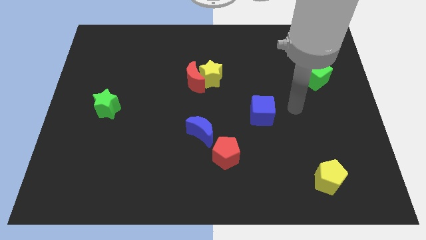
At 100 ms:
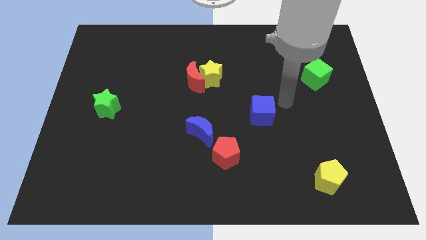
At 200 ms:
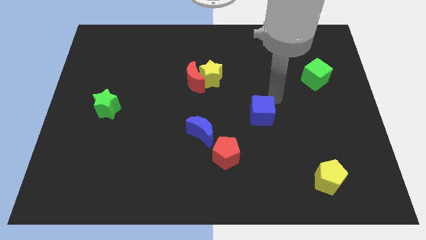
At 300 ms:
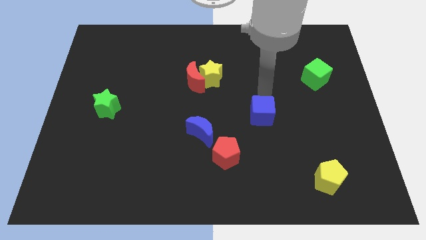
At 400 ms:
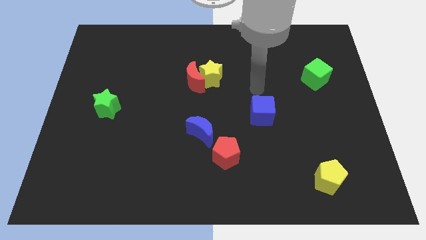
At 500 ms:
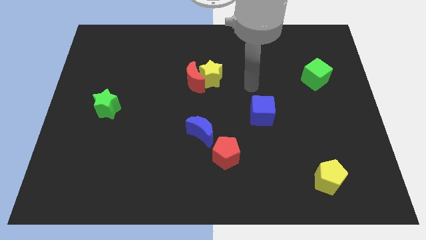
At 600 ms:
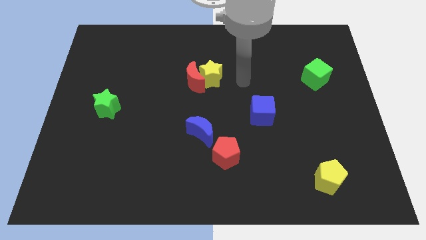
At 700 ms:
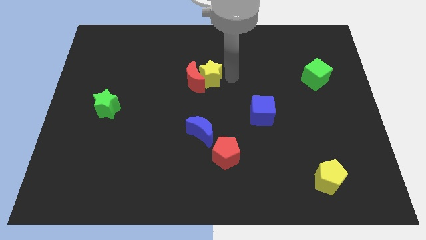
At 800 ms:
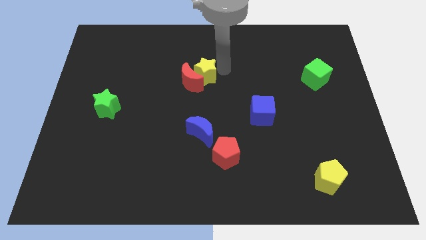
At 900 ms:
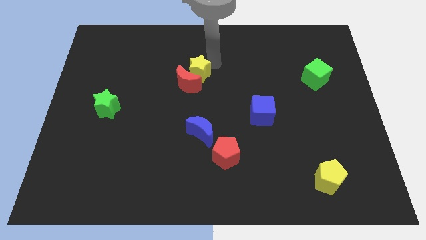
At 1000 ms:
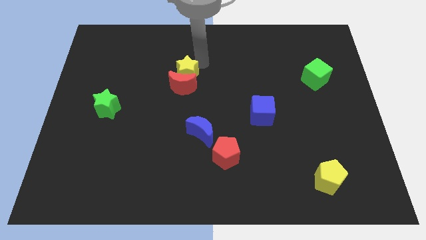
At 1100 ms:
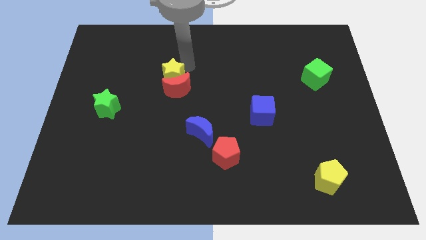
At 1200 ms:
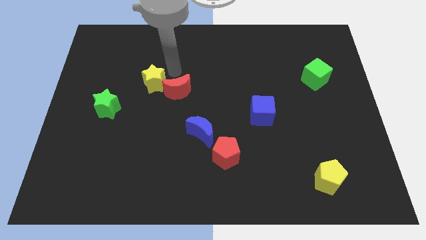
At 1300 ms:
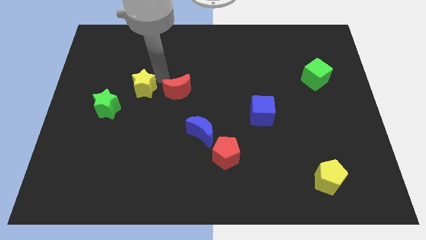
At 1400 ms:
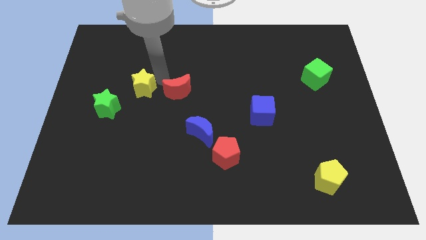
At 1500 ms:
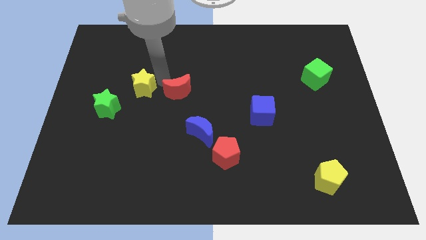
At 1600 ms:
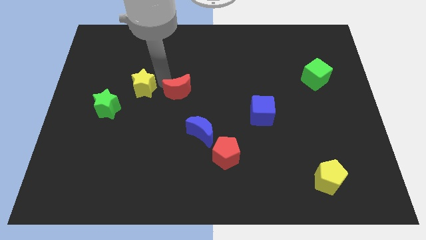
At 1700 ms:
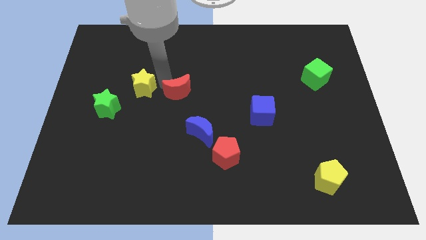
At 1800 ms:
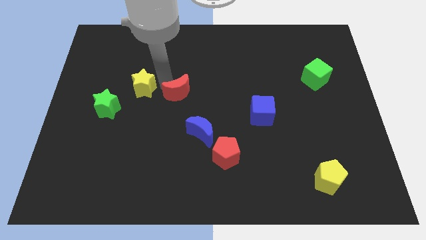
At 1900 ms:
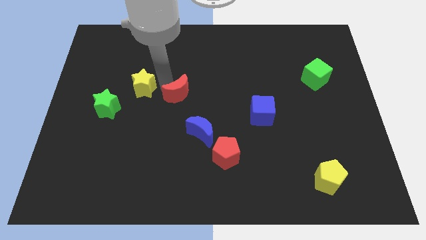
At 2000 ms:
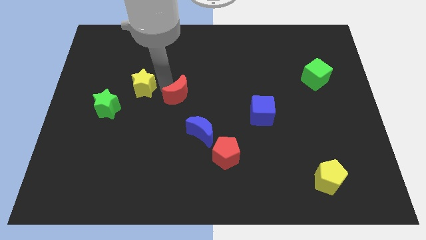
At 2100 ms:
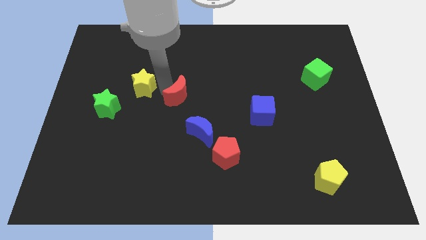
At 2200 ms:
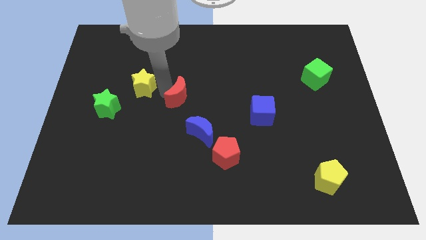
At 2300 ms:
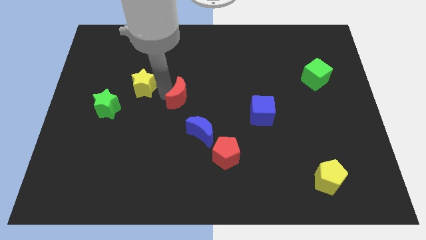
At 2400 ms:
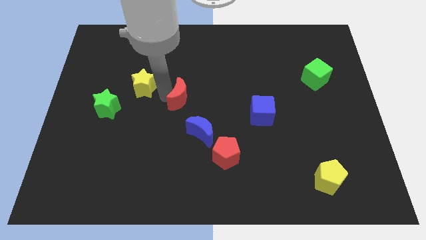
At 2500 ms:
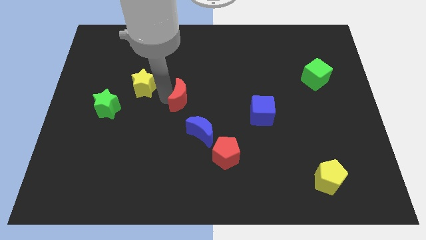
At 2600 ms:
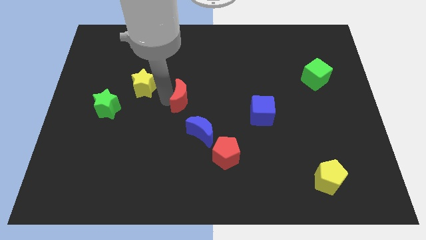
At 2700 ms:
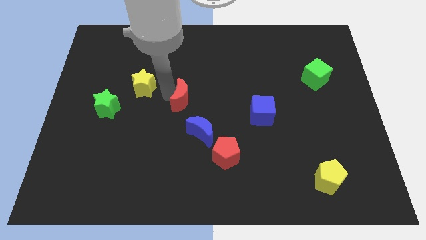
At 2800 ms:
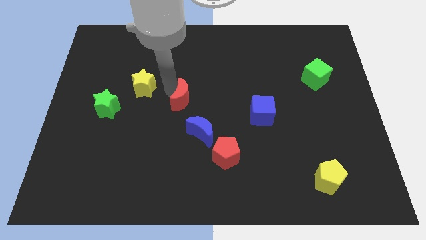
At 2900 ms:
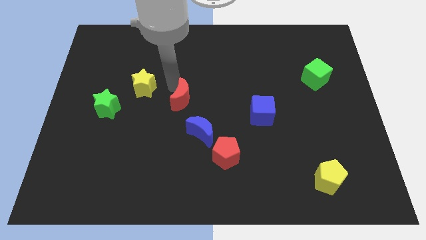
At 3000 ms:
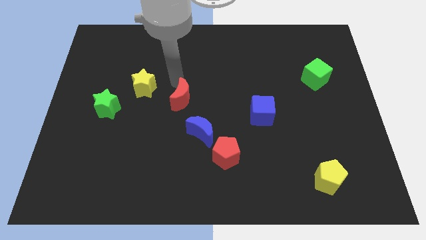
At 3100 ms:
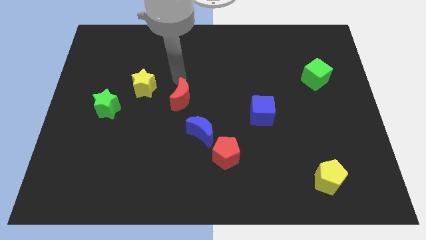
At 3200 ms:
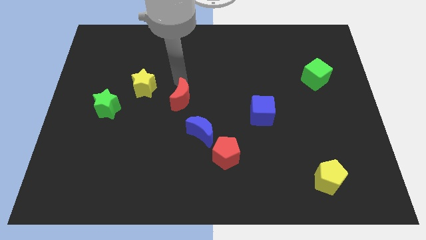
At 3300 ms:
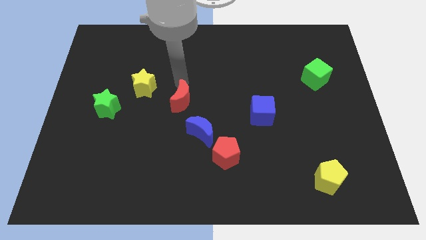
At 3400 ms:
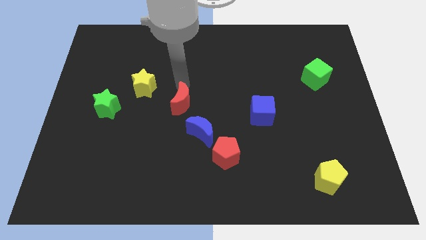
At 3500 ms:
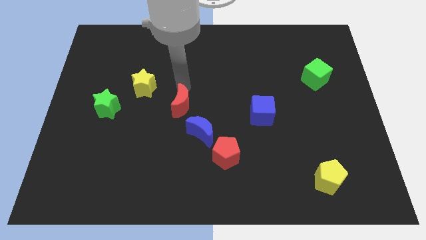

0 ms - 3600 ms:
slightly push the red moon down

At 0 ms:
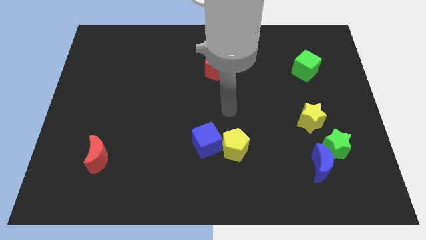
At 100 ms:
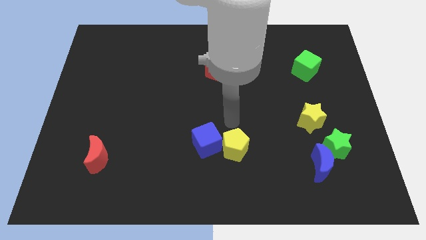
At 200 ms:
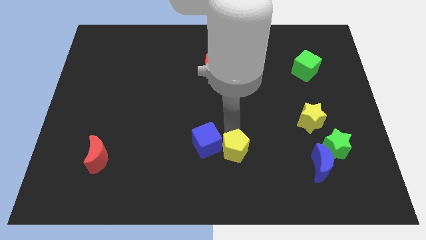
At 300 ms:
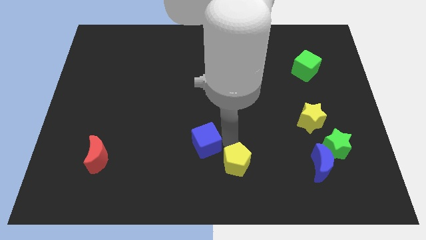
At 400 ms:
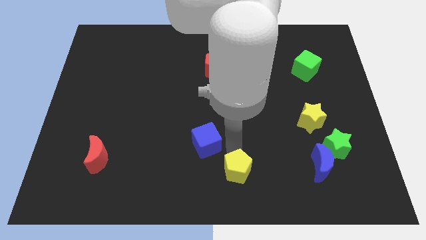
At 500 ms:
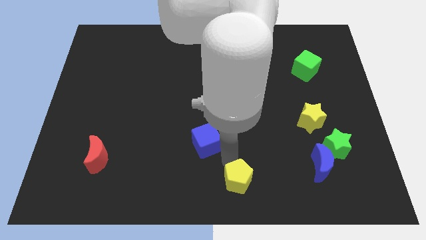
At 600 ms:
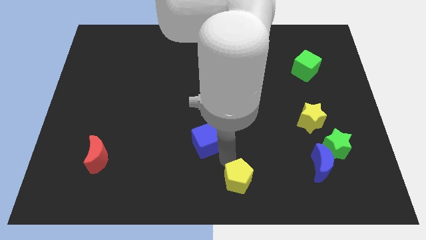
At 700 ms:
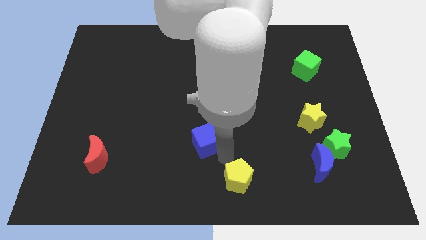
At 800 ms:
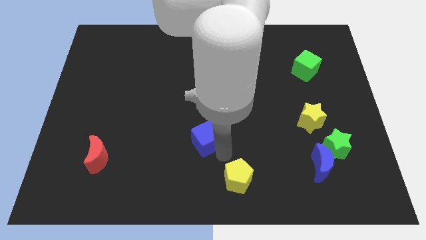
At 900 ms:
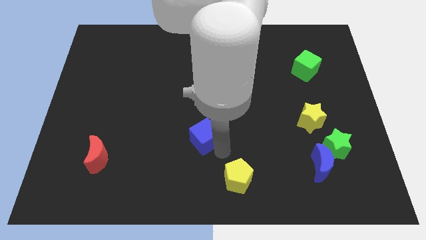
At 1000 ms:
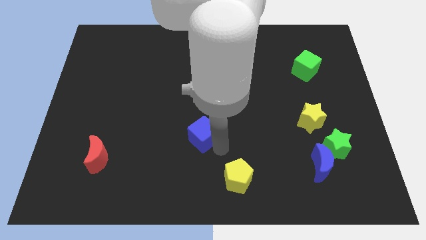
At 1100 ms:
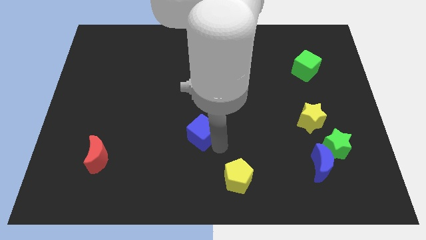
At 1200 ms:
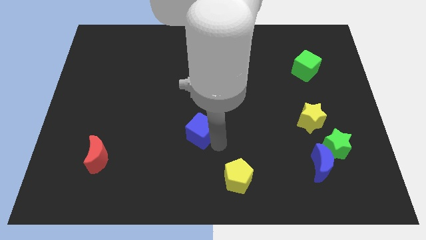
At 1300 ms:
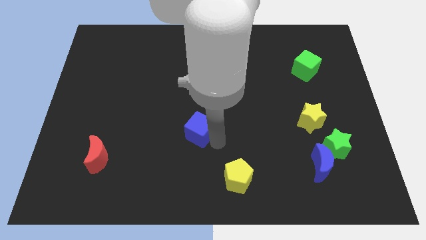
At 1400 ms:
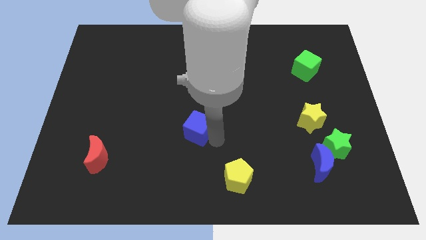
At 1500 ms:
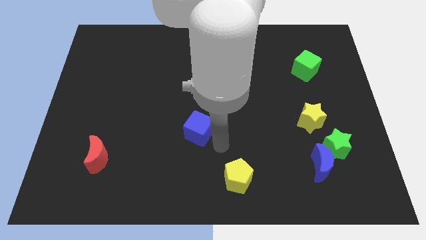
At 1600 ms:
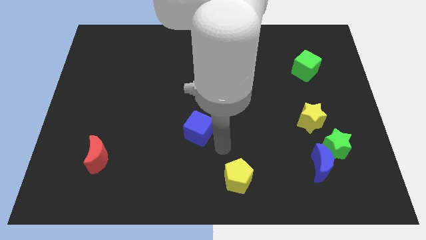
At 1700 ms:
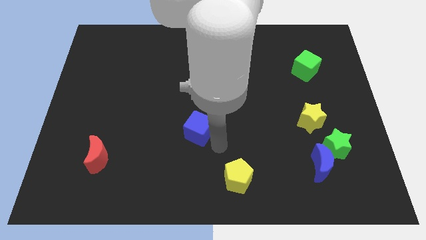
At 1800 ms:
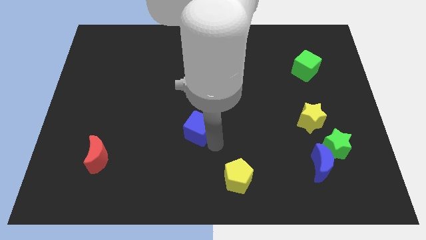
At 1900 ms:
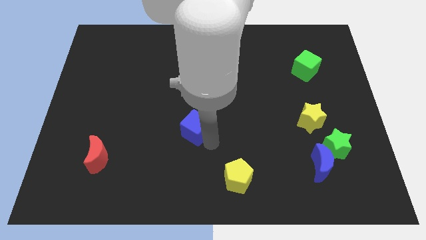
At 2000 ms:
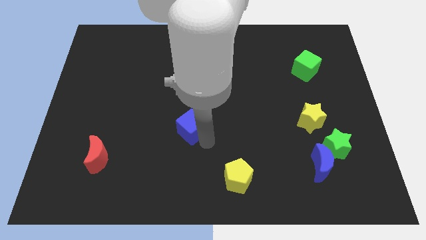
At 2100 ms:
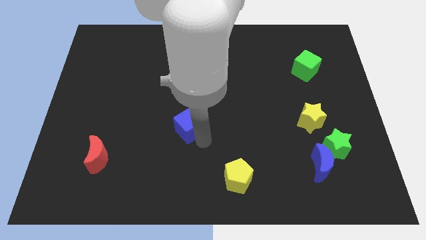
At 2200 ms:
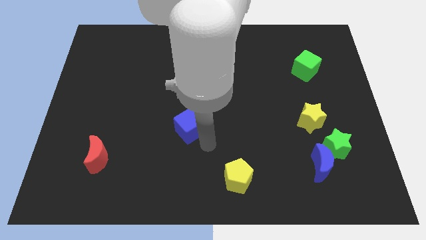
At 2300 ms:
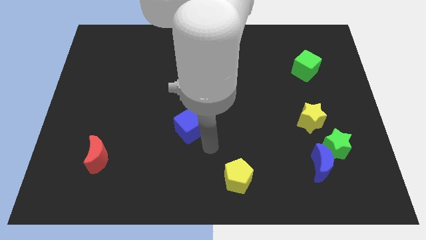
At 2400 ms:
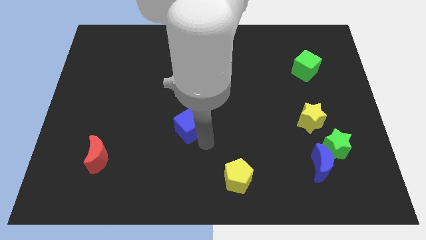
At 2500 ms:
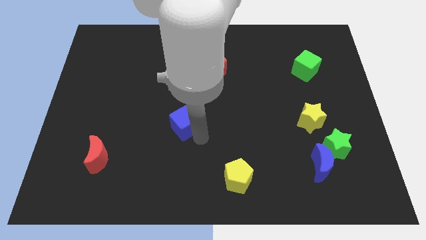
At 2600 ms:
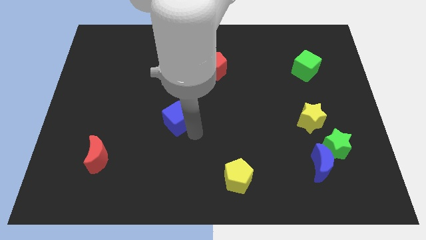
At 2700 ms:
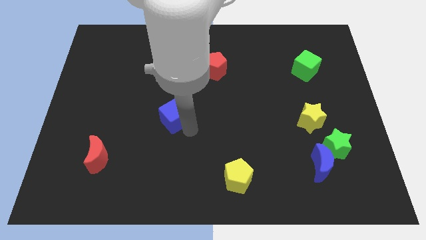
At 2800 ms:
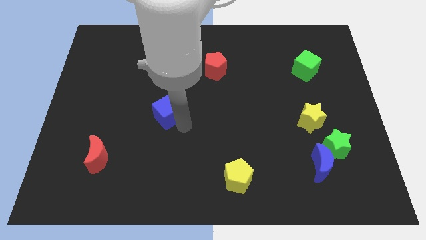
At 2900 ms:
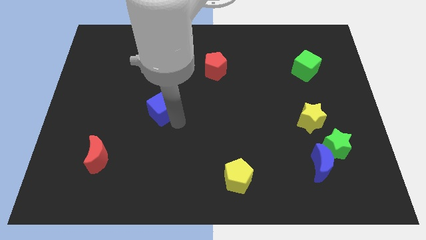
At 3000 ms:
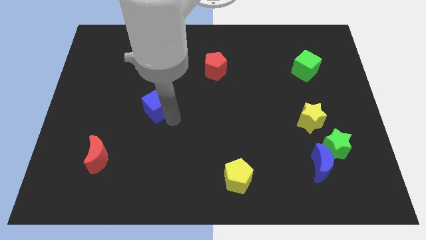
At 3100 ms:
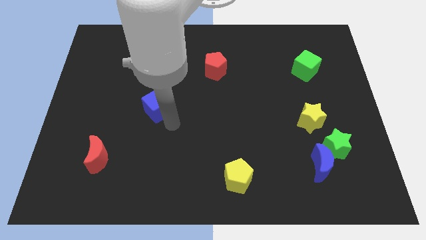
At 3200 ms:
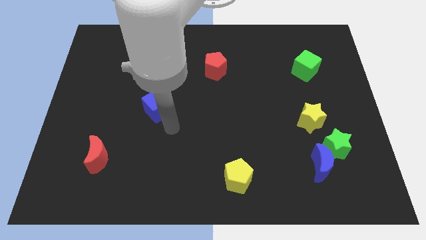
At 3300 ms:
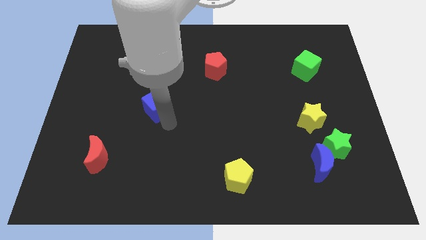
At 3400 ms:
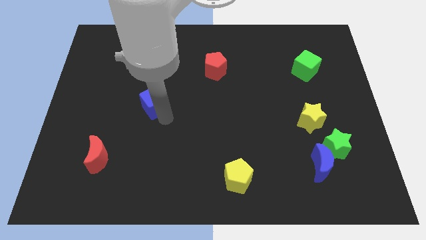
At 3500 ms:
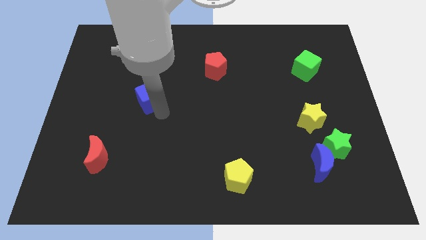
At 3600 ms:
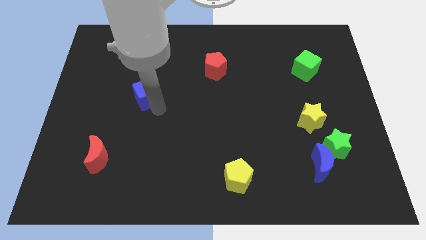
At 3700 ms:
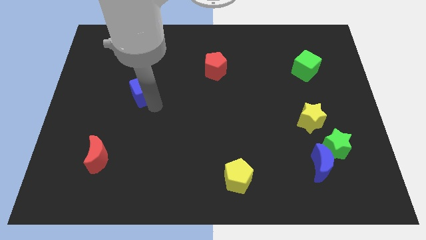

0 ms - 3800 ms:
slide the blue cube up and to the left diagonally

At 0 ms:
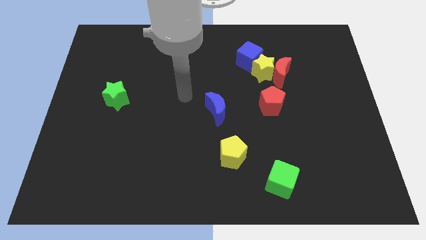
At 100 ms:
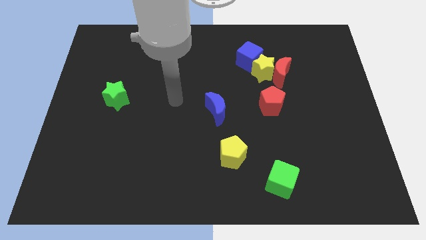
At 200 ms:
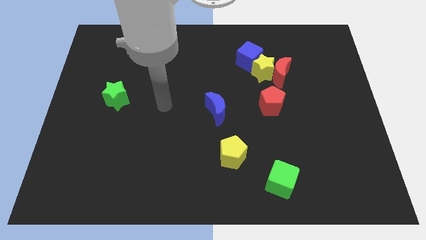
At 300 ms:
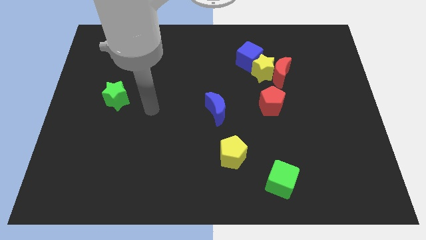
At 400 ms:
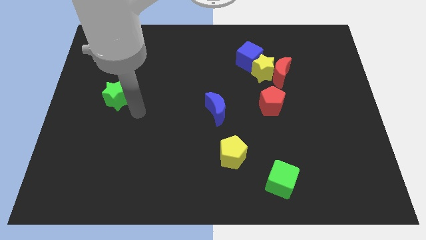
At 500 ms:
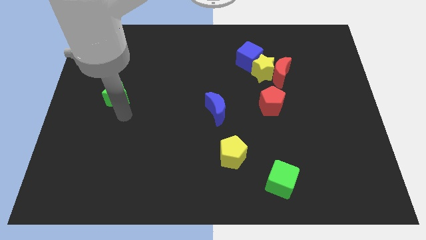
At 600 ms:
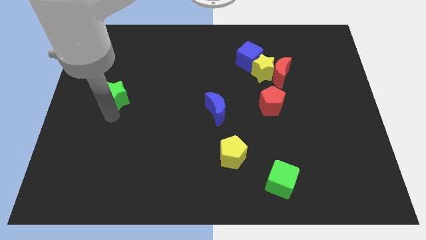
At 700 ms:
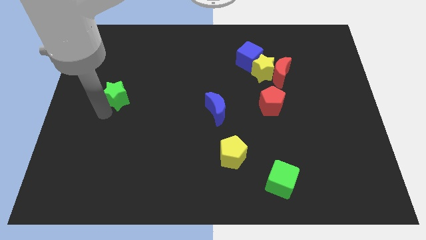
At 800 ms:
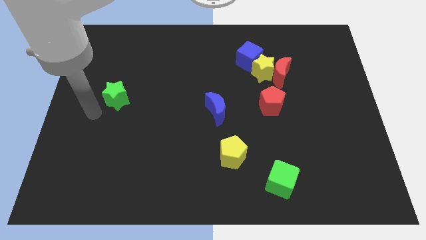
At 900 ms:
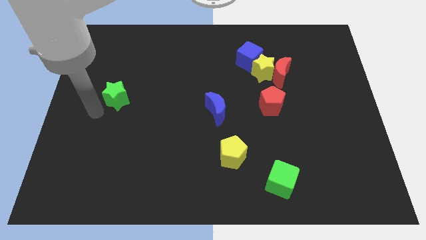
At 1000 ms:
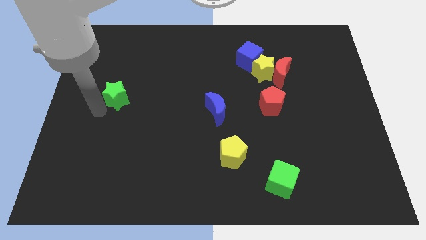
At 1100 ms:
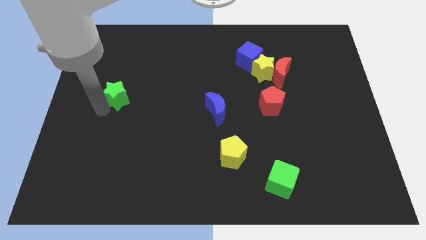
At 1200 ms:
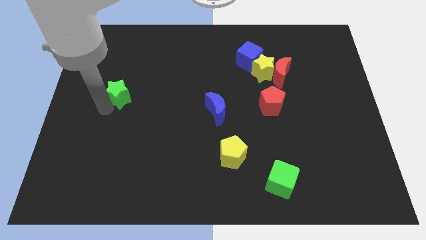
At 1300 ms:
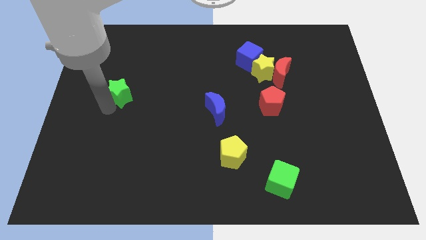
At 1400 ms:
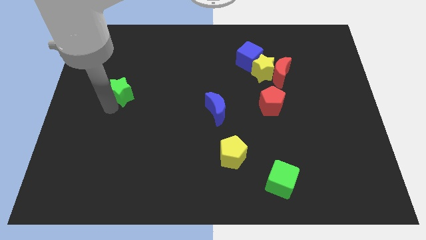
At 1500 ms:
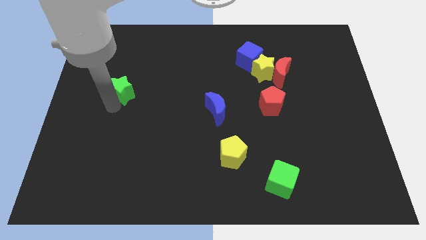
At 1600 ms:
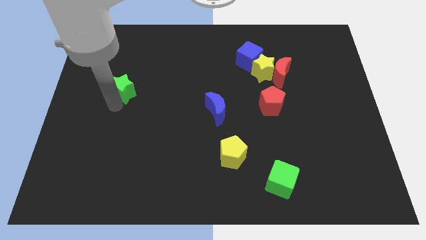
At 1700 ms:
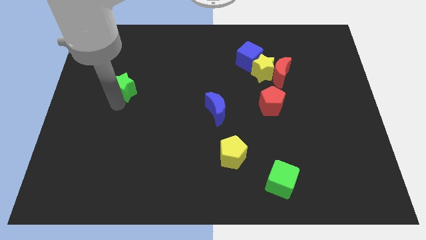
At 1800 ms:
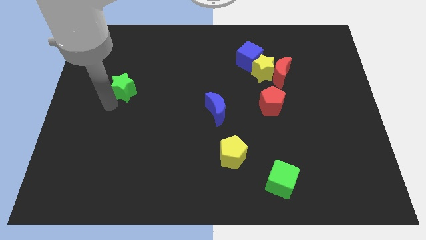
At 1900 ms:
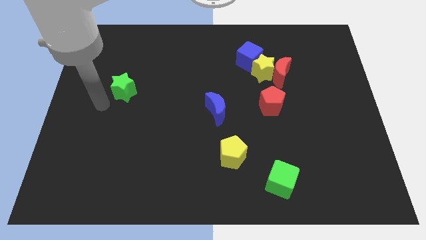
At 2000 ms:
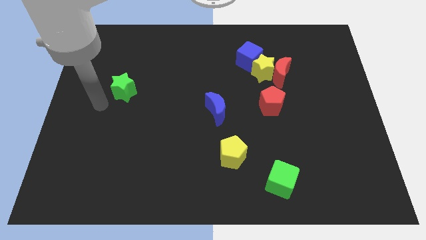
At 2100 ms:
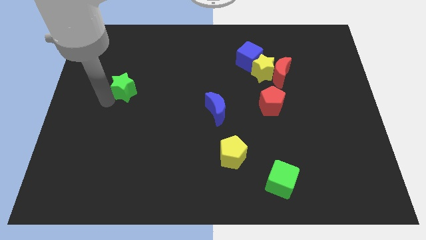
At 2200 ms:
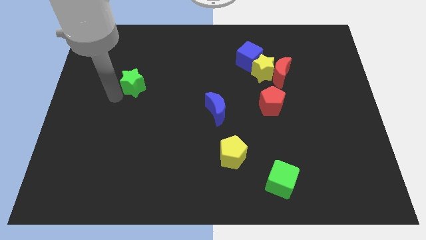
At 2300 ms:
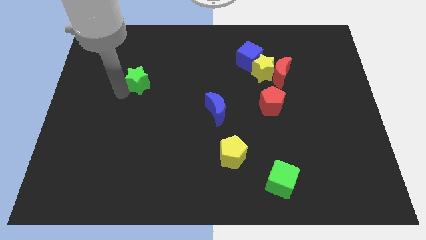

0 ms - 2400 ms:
slightly slide the green star upwards and then to the right
